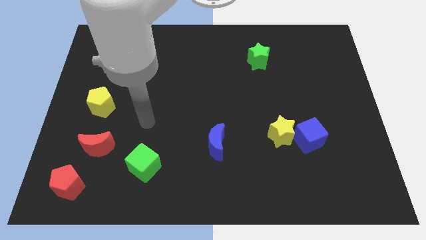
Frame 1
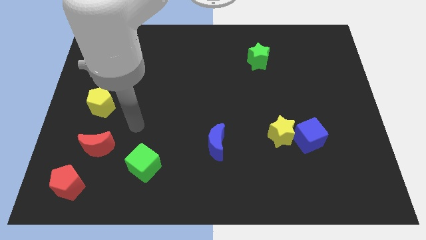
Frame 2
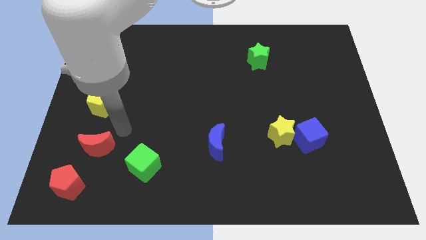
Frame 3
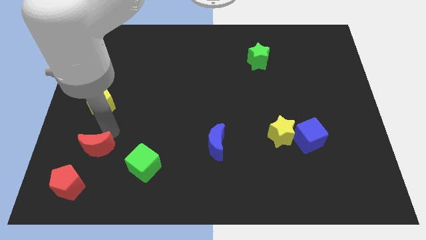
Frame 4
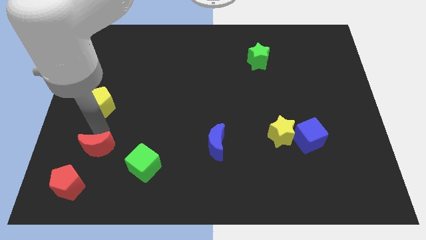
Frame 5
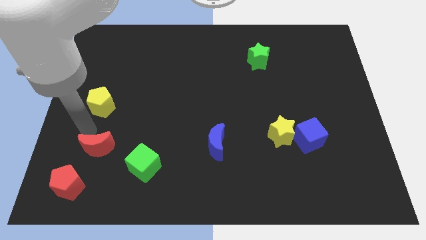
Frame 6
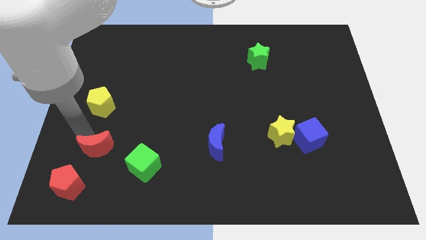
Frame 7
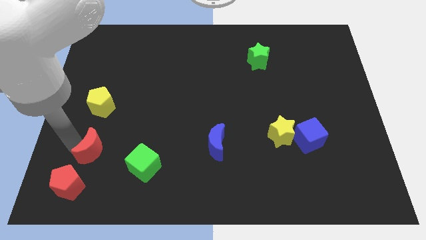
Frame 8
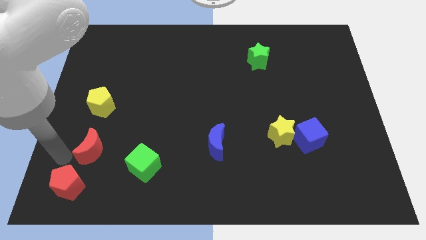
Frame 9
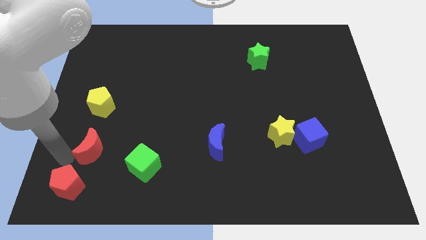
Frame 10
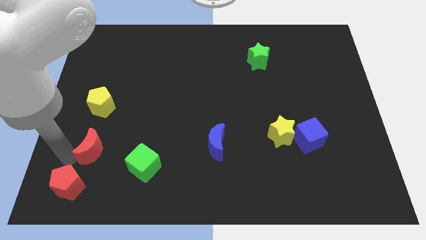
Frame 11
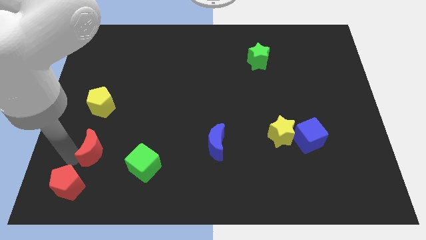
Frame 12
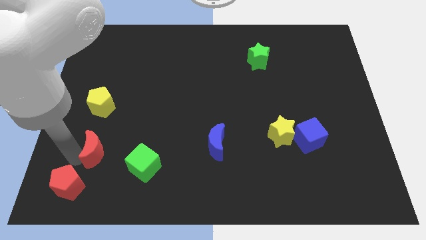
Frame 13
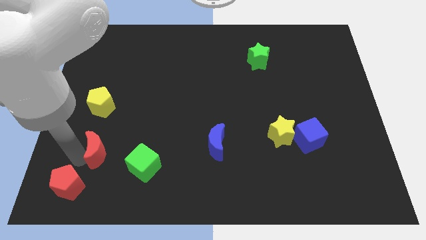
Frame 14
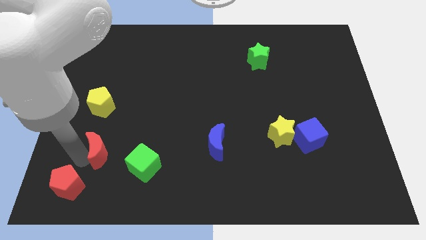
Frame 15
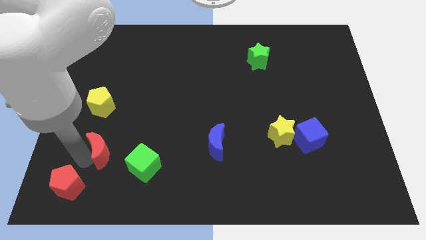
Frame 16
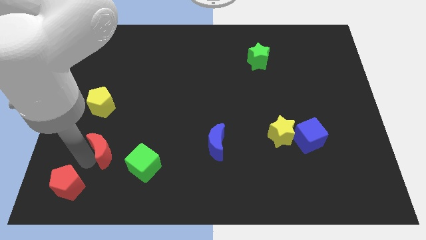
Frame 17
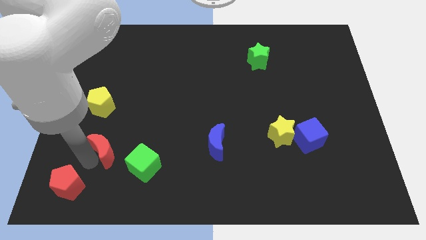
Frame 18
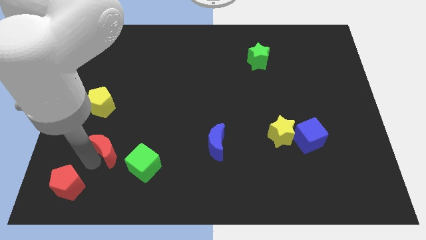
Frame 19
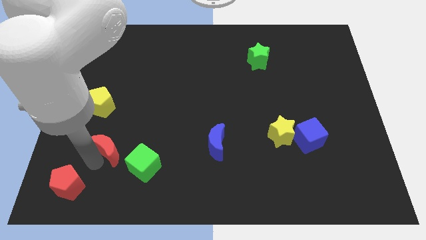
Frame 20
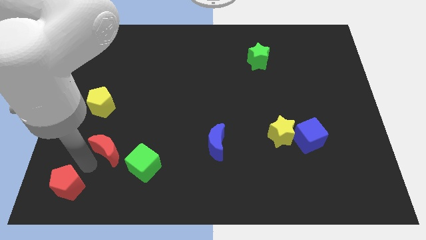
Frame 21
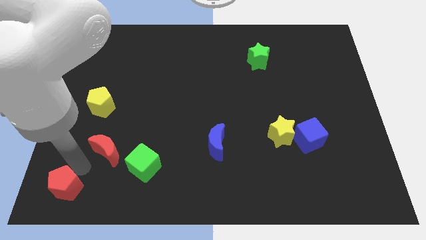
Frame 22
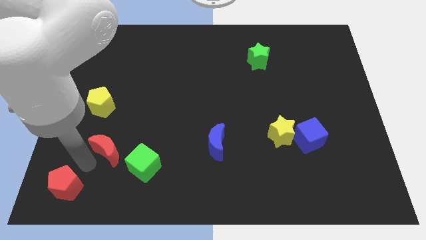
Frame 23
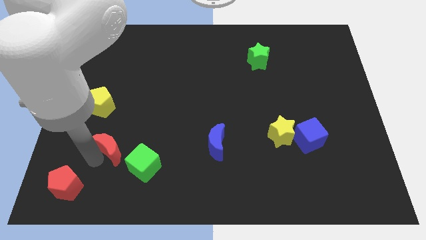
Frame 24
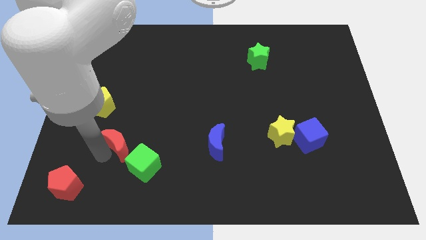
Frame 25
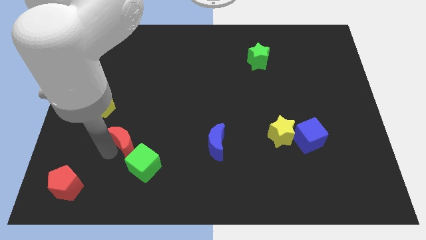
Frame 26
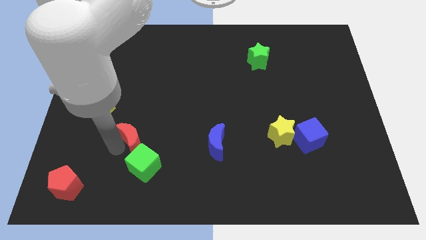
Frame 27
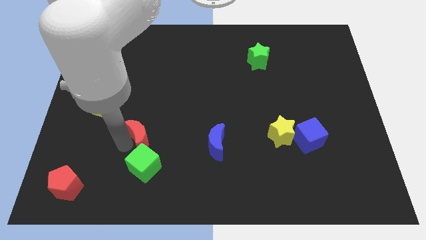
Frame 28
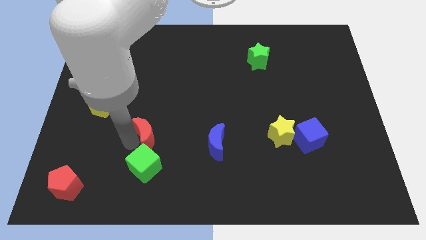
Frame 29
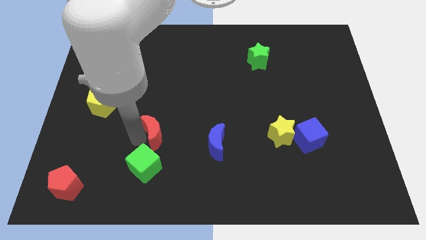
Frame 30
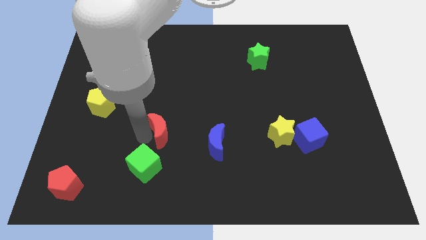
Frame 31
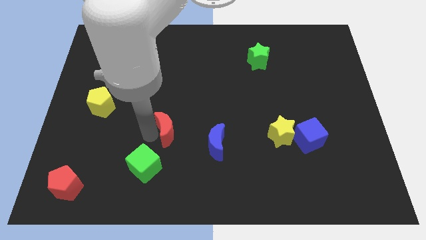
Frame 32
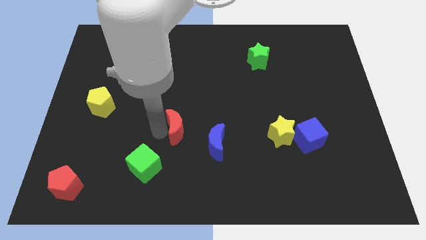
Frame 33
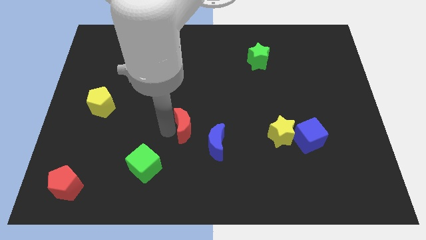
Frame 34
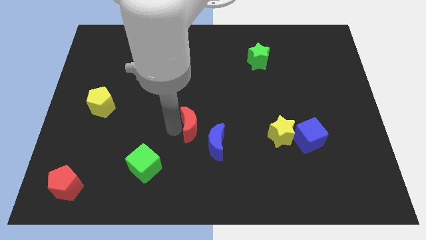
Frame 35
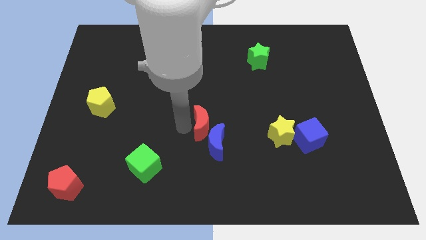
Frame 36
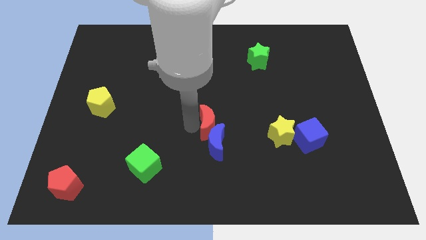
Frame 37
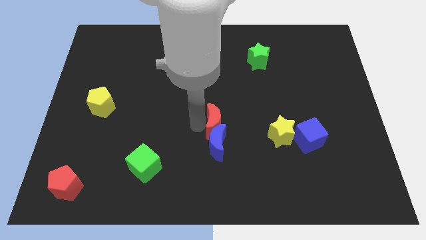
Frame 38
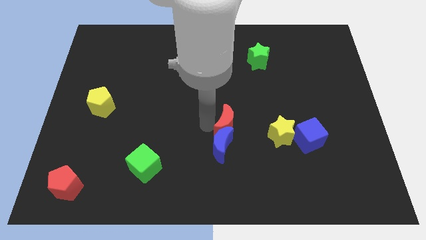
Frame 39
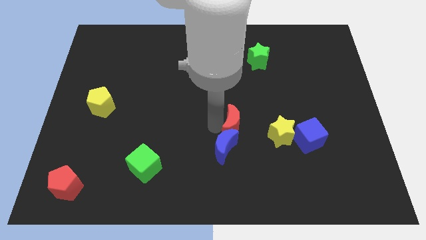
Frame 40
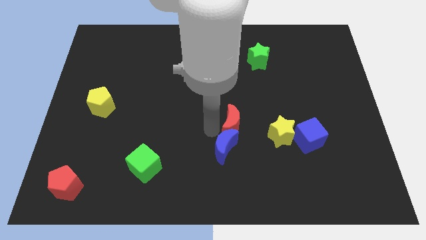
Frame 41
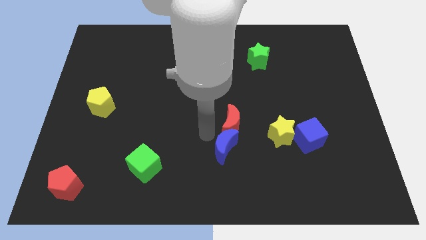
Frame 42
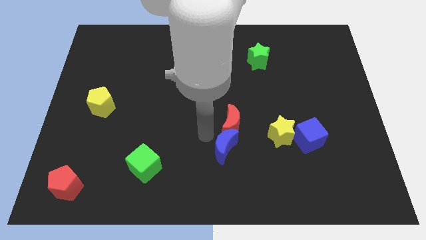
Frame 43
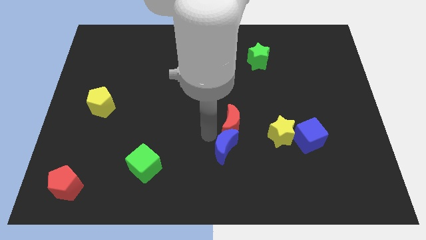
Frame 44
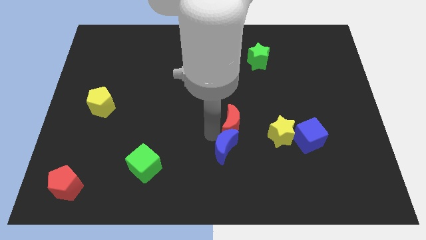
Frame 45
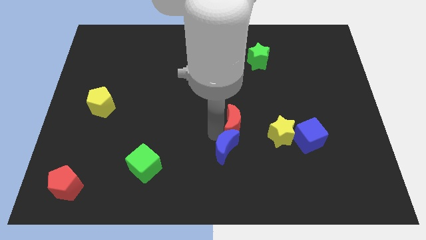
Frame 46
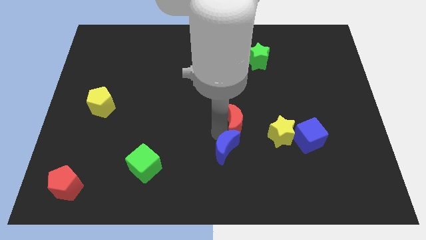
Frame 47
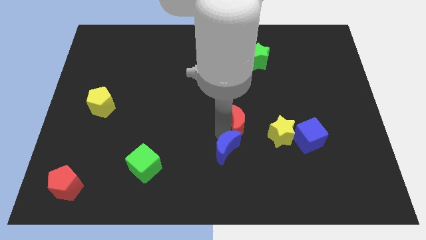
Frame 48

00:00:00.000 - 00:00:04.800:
put the red moon to the top left side of the yellow star

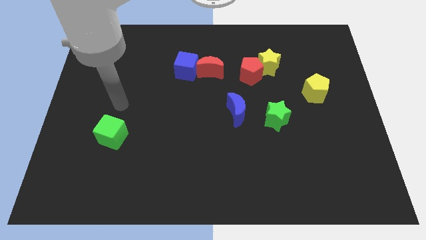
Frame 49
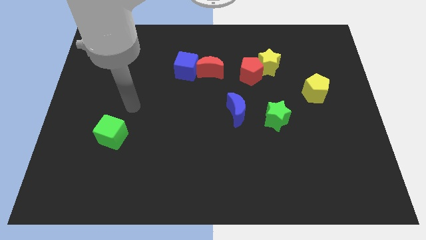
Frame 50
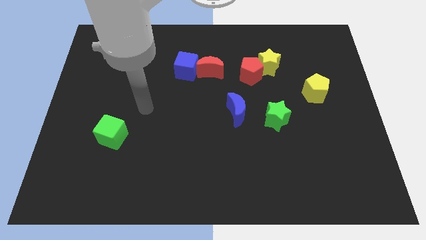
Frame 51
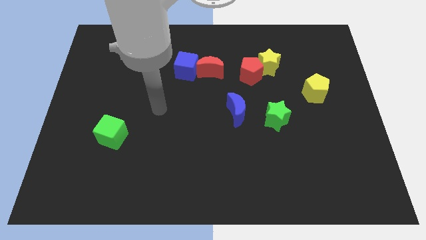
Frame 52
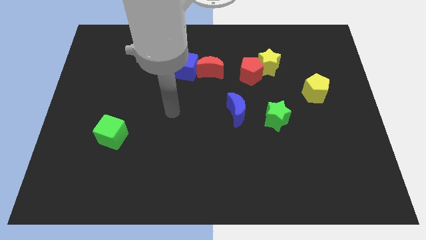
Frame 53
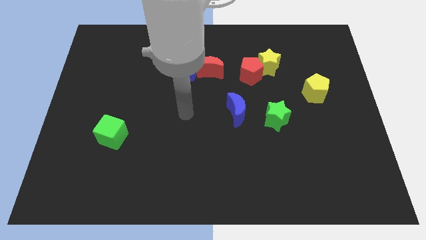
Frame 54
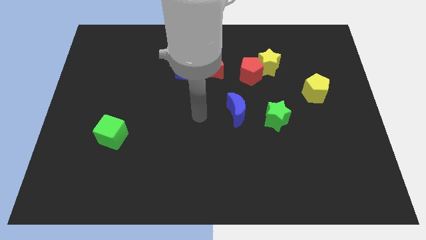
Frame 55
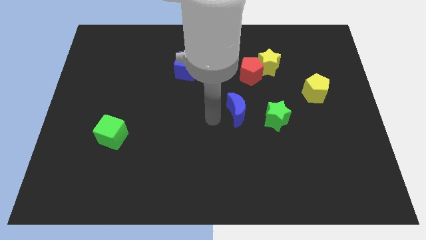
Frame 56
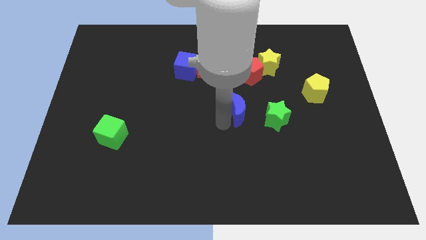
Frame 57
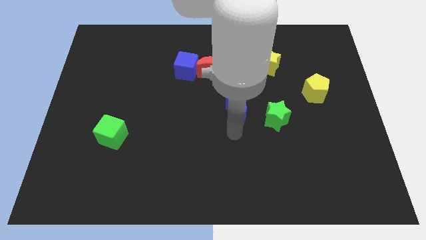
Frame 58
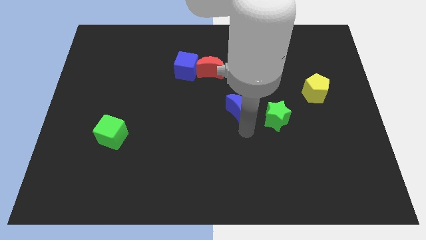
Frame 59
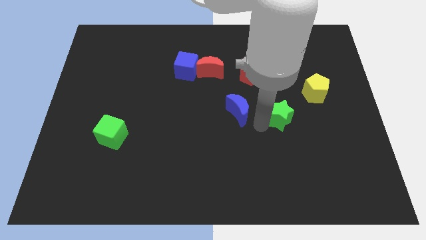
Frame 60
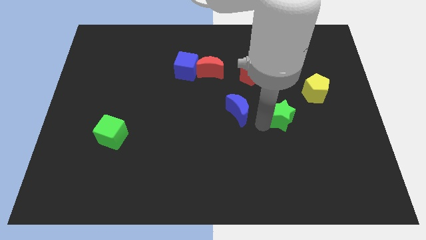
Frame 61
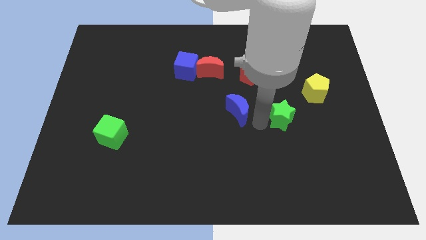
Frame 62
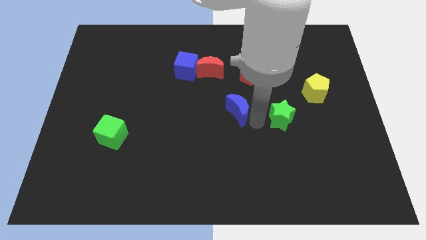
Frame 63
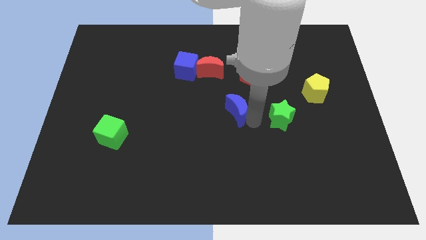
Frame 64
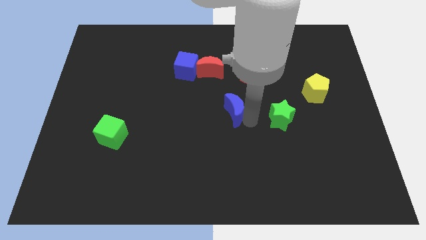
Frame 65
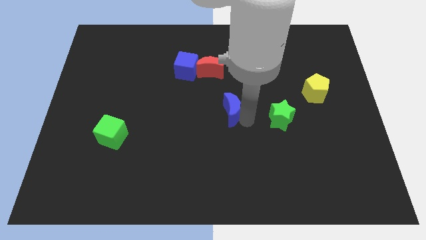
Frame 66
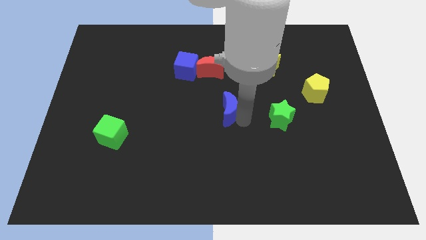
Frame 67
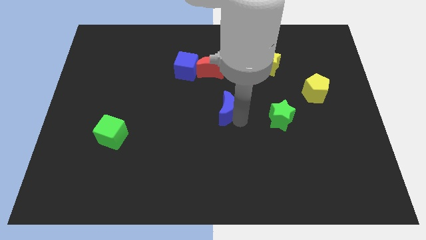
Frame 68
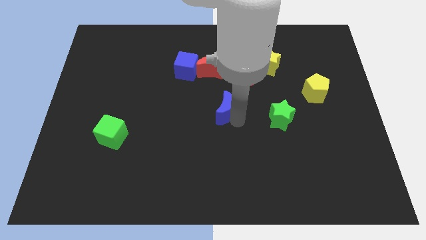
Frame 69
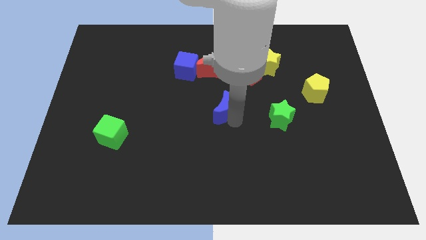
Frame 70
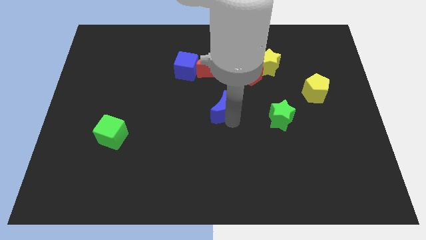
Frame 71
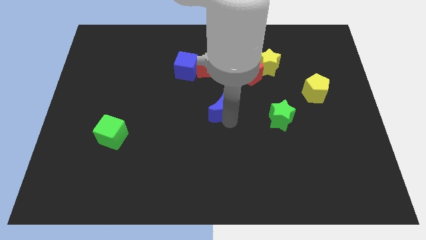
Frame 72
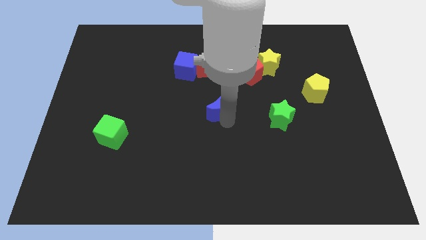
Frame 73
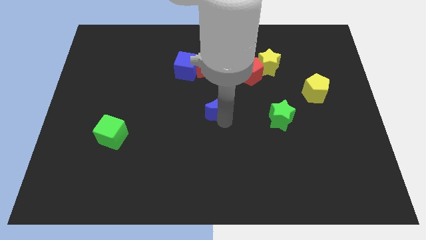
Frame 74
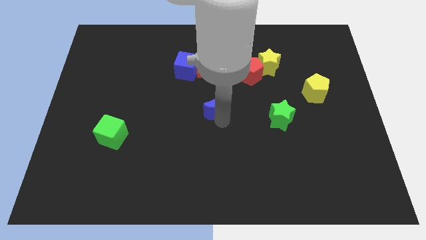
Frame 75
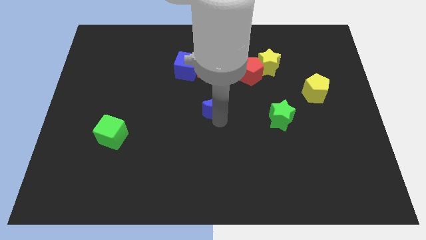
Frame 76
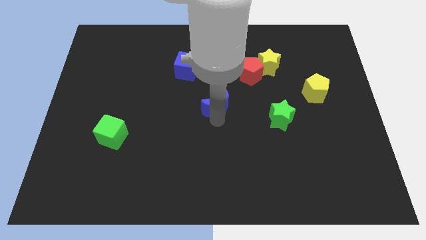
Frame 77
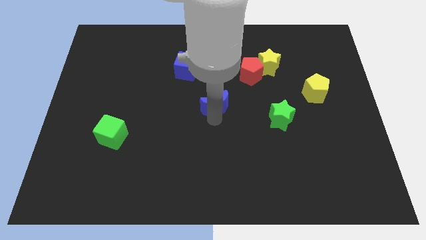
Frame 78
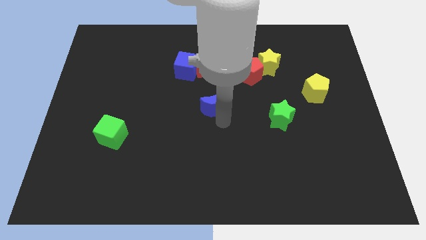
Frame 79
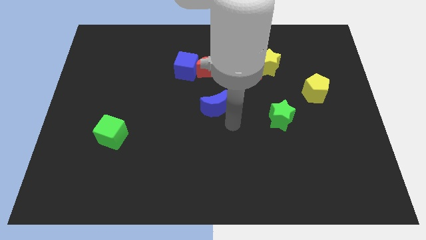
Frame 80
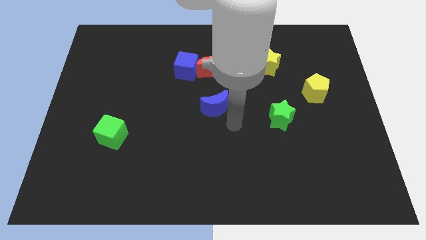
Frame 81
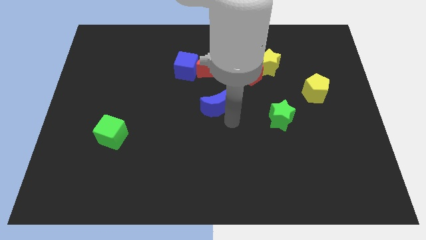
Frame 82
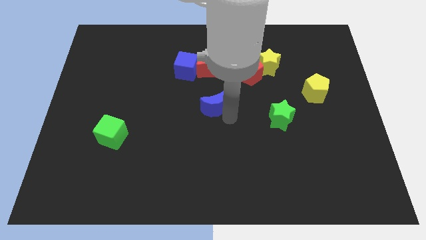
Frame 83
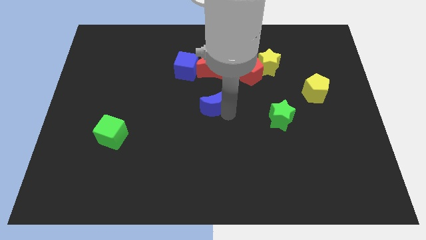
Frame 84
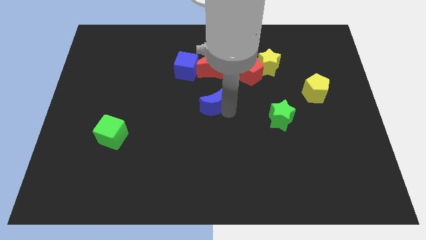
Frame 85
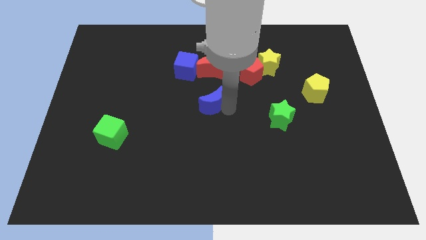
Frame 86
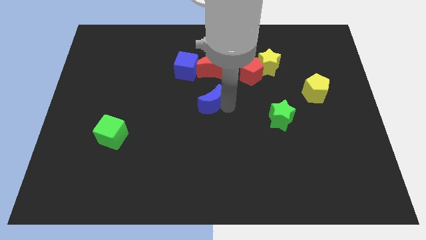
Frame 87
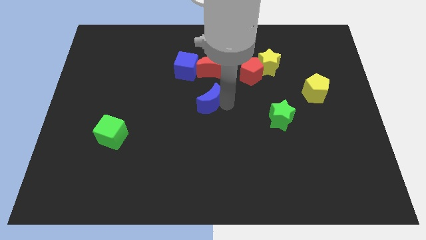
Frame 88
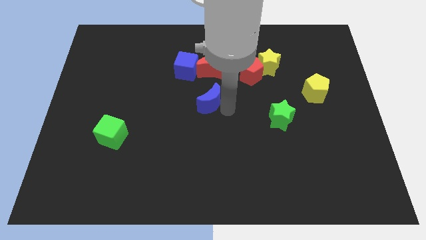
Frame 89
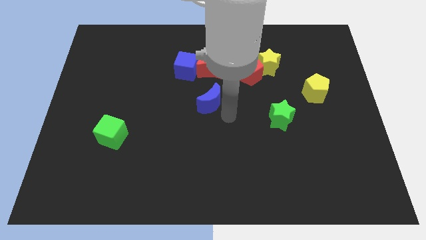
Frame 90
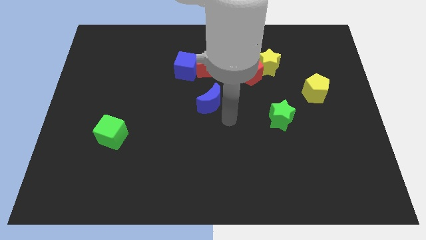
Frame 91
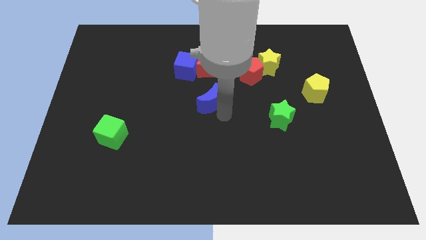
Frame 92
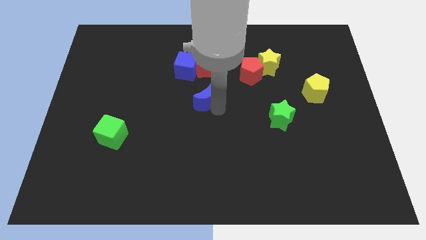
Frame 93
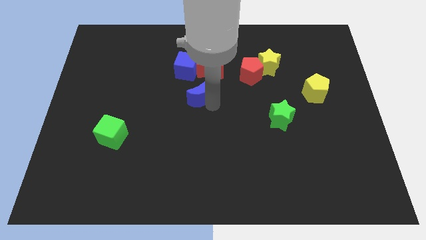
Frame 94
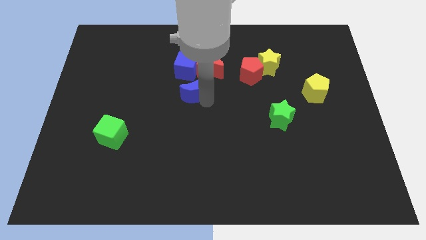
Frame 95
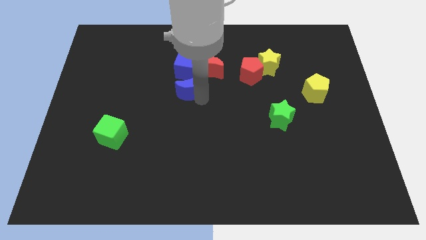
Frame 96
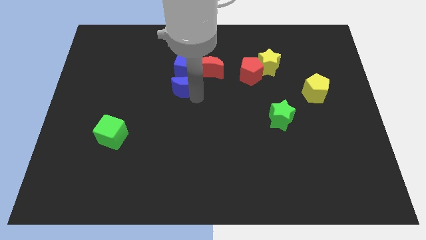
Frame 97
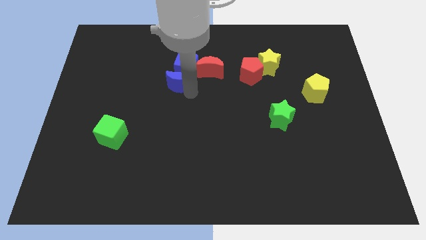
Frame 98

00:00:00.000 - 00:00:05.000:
move the blue moon to the left side of the red moon
